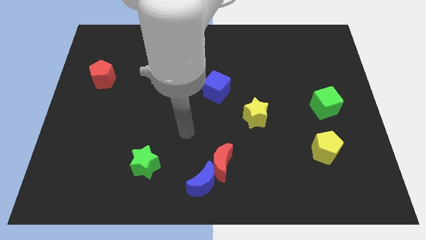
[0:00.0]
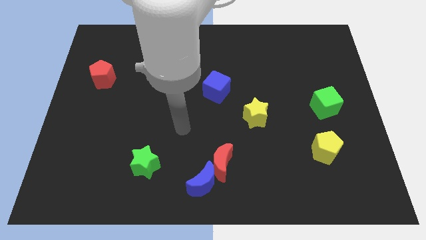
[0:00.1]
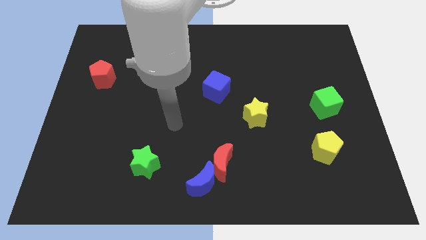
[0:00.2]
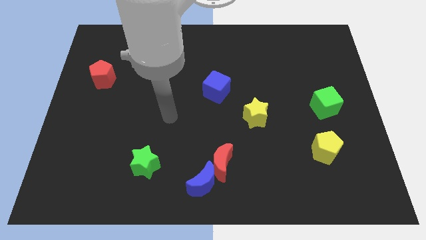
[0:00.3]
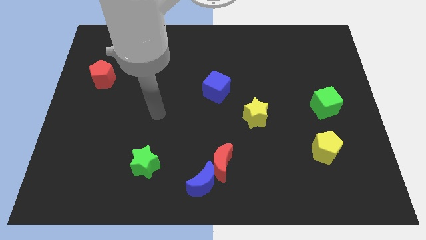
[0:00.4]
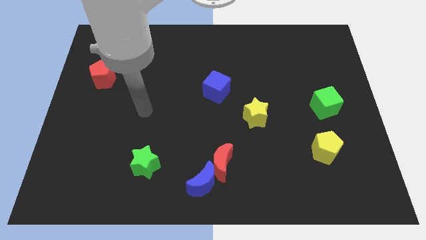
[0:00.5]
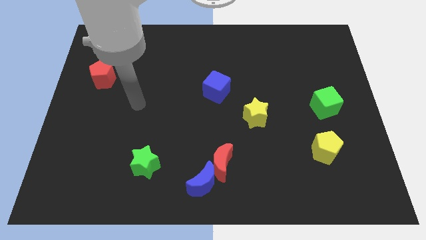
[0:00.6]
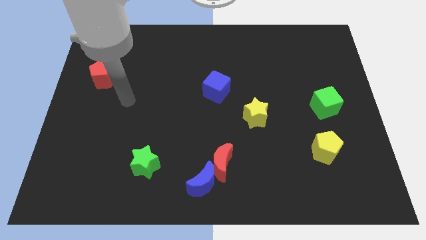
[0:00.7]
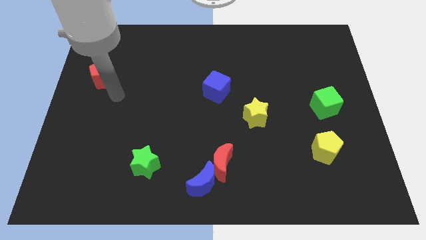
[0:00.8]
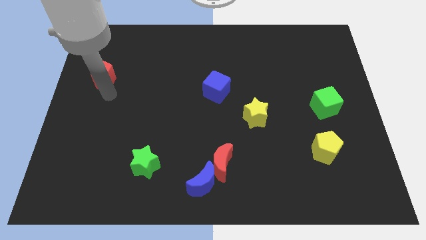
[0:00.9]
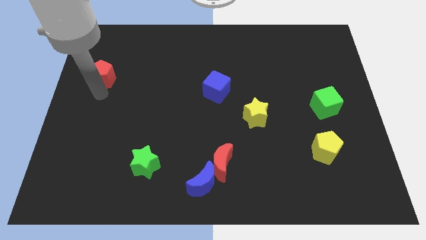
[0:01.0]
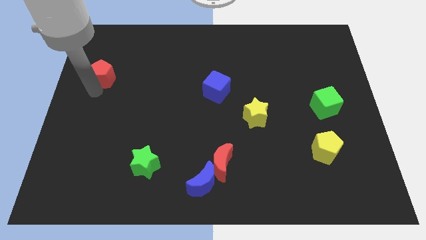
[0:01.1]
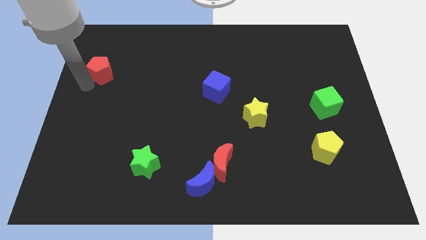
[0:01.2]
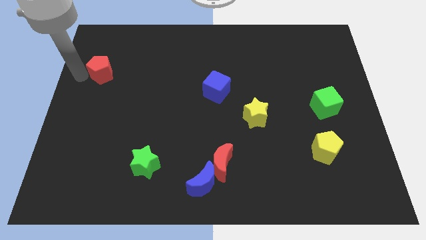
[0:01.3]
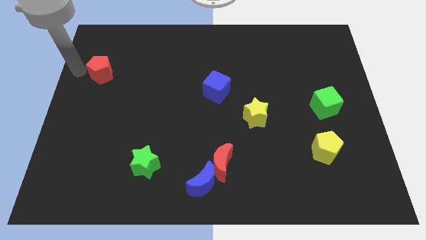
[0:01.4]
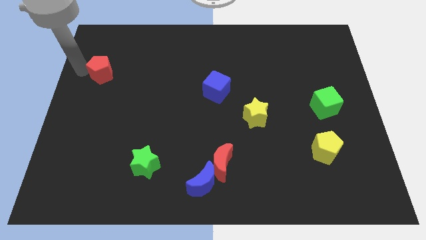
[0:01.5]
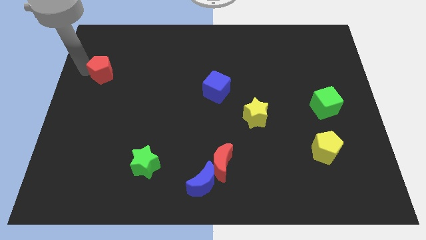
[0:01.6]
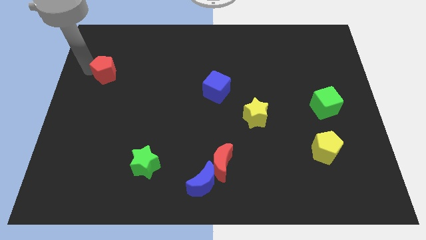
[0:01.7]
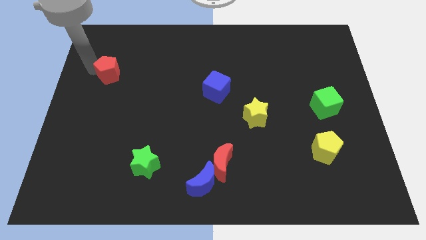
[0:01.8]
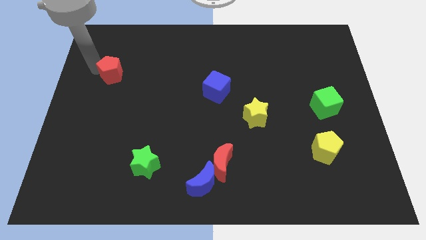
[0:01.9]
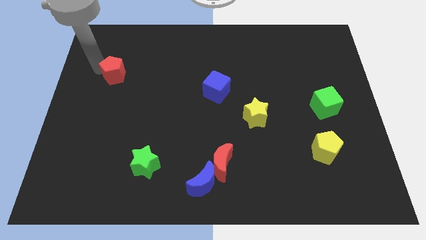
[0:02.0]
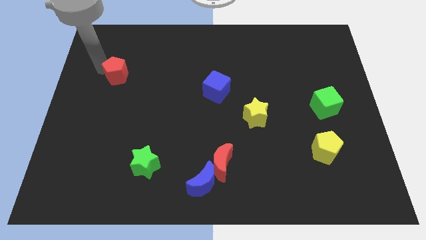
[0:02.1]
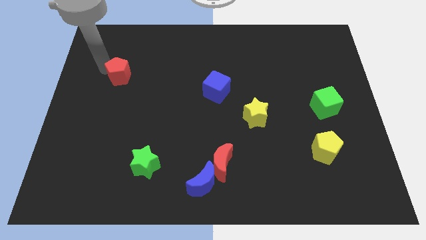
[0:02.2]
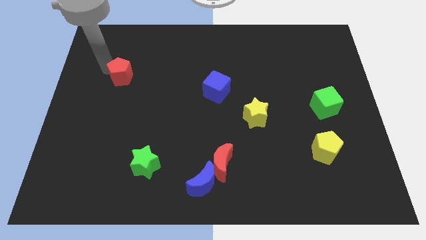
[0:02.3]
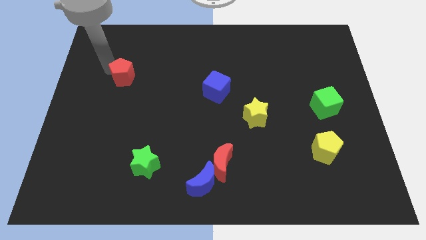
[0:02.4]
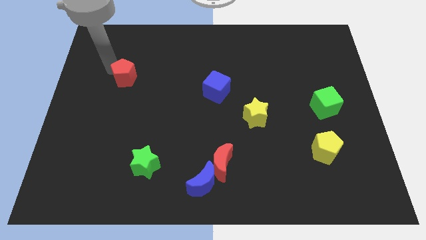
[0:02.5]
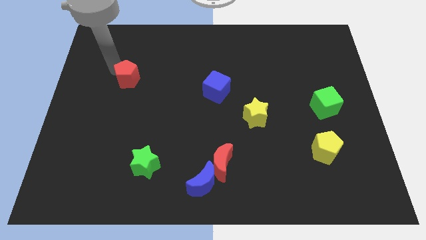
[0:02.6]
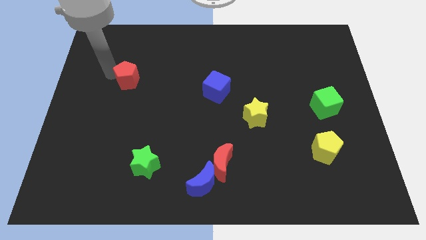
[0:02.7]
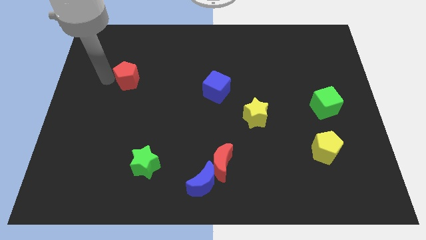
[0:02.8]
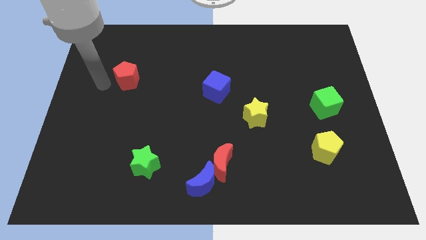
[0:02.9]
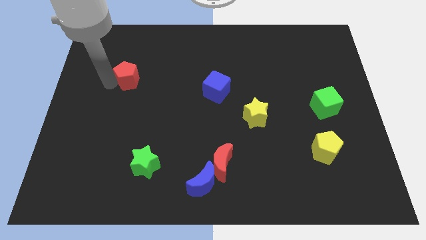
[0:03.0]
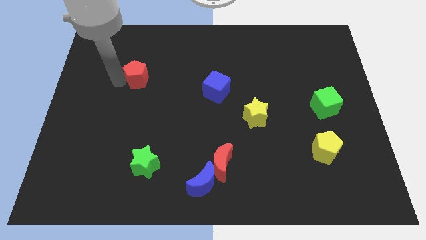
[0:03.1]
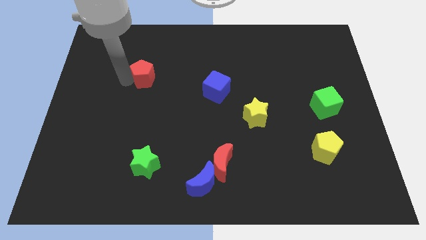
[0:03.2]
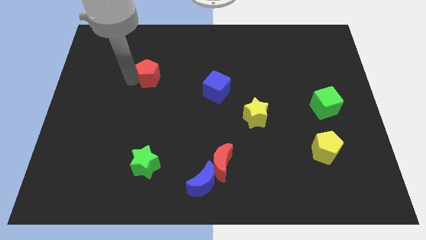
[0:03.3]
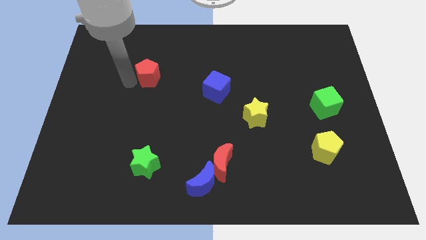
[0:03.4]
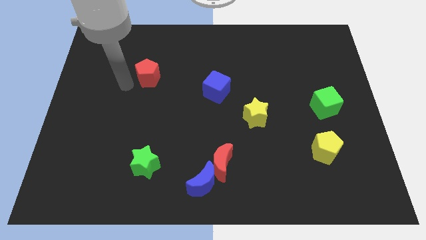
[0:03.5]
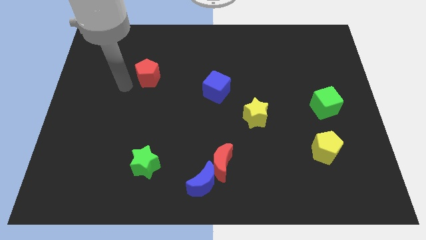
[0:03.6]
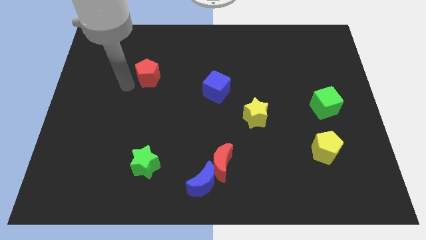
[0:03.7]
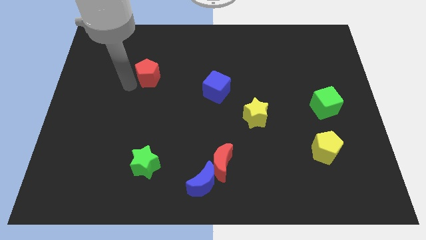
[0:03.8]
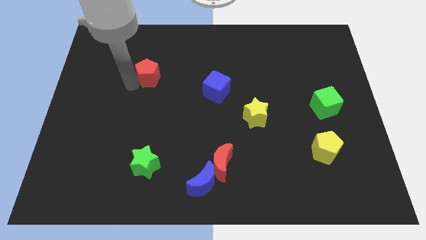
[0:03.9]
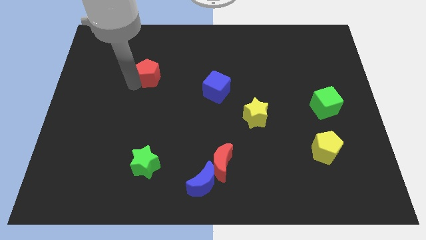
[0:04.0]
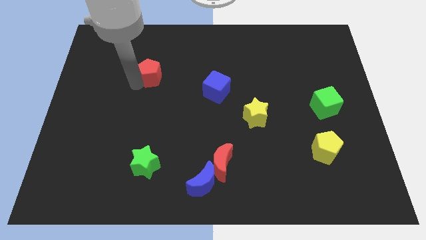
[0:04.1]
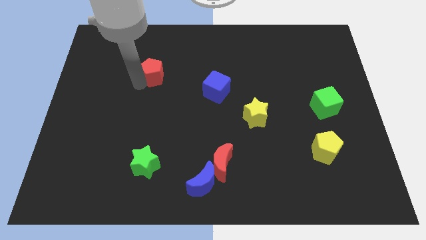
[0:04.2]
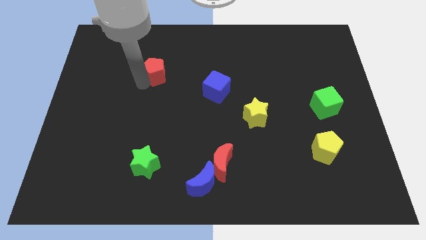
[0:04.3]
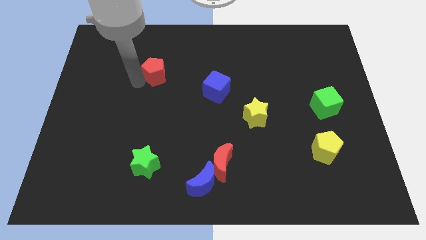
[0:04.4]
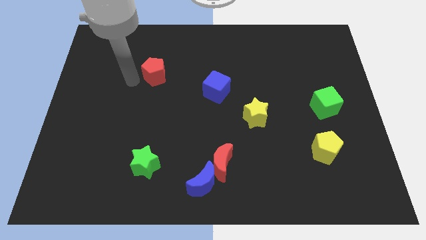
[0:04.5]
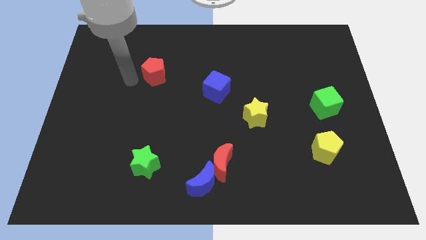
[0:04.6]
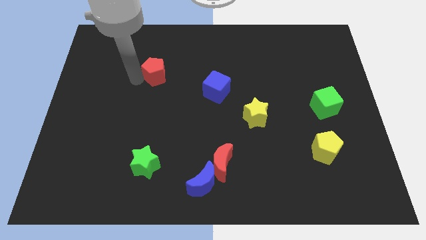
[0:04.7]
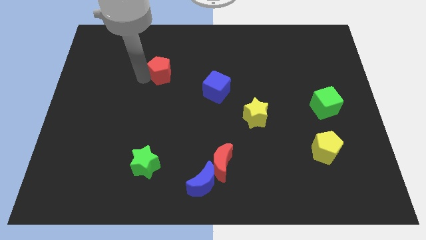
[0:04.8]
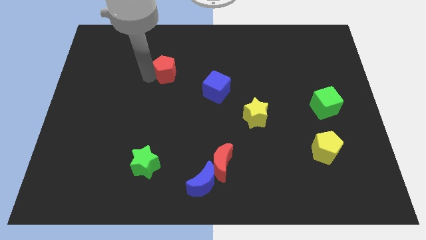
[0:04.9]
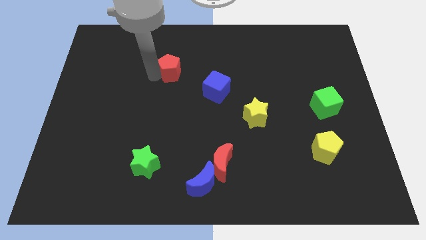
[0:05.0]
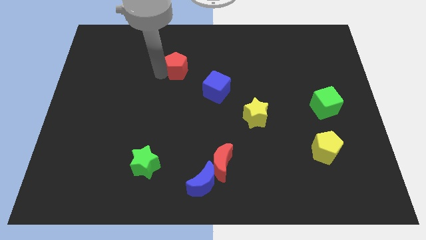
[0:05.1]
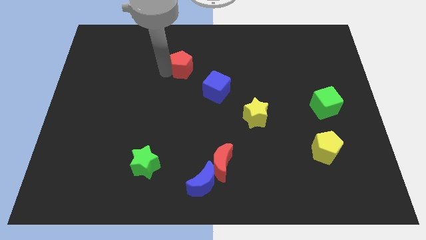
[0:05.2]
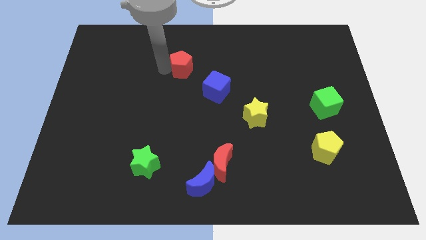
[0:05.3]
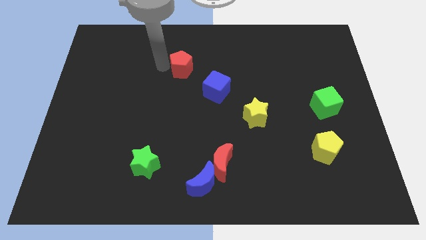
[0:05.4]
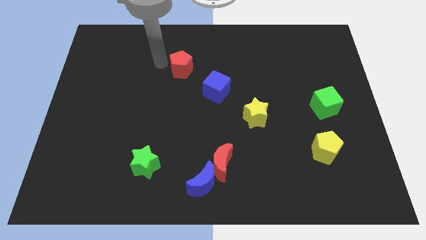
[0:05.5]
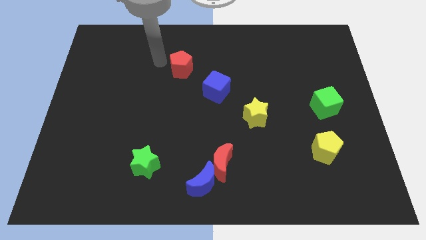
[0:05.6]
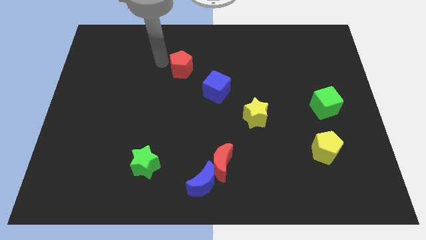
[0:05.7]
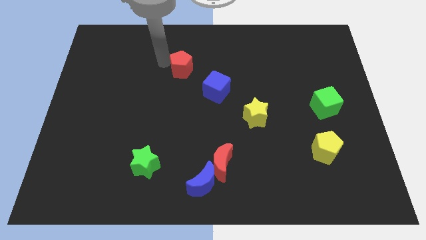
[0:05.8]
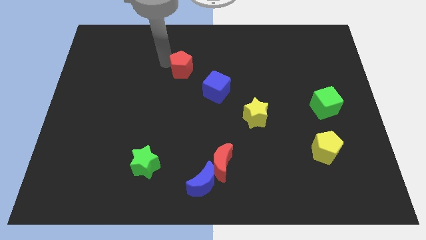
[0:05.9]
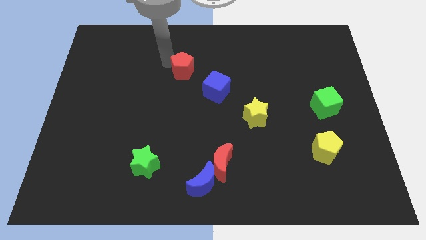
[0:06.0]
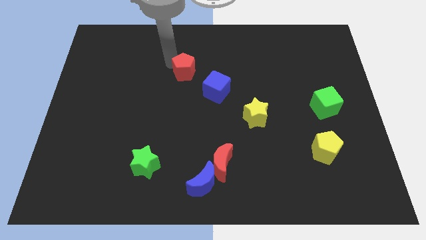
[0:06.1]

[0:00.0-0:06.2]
push the red pentagon to the right

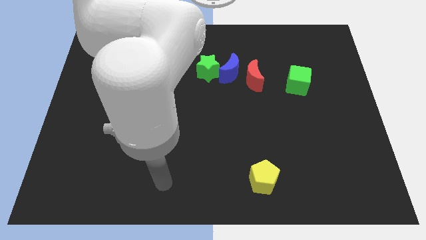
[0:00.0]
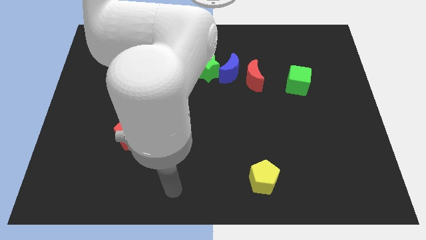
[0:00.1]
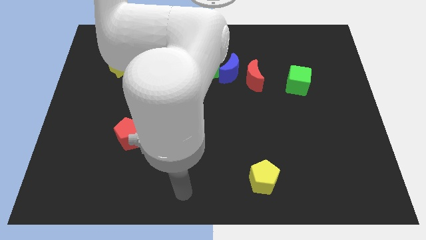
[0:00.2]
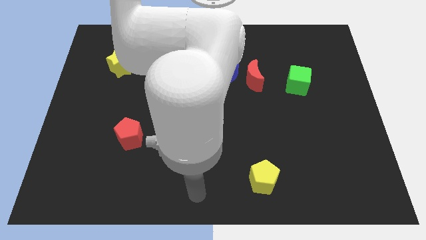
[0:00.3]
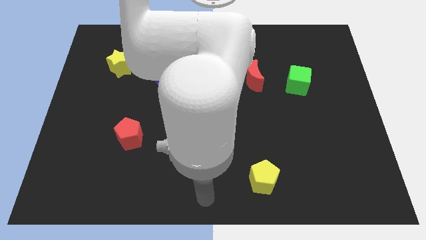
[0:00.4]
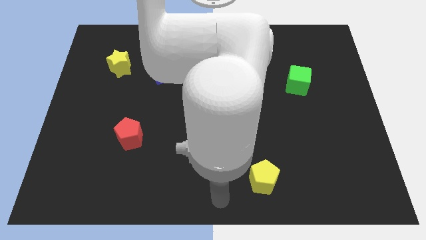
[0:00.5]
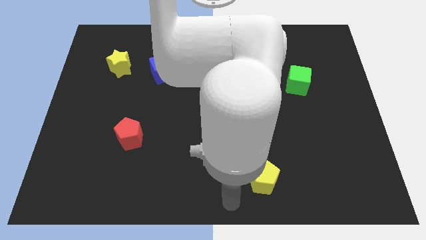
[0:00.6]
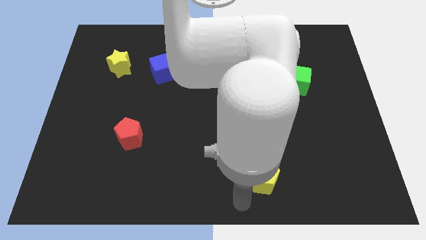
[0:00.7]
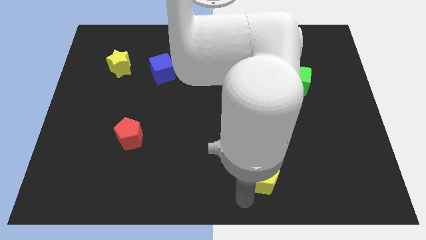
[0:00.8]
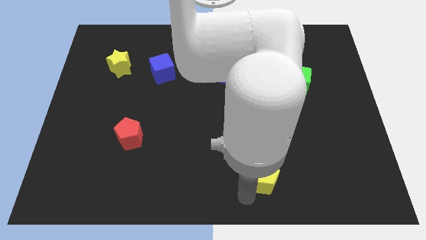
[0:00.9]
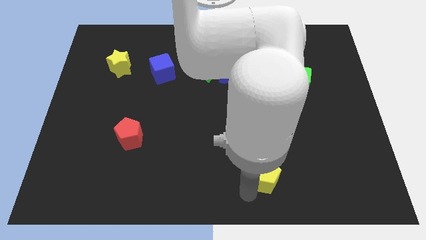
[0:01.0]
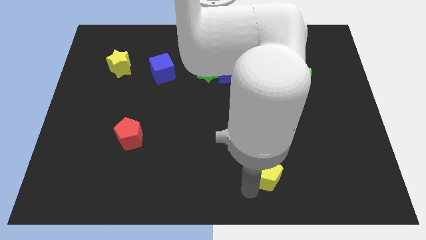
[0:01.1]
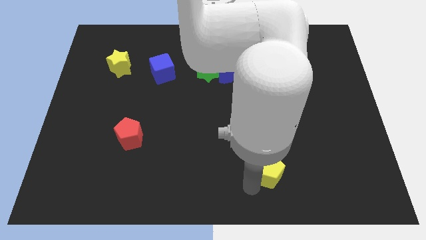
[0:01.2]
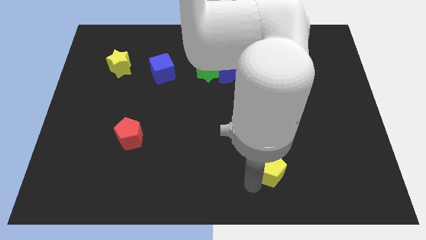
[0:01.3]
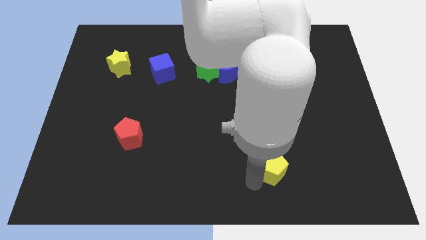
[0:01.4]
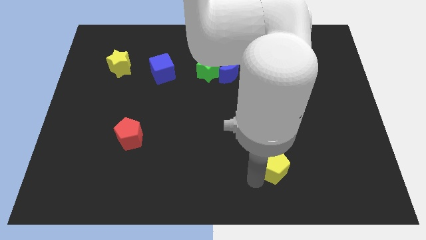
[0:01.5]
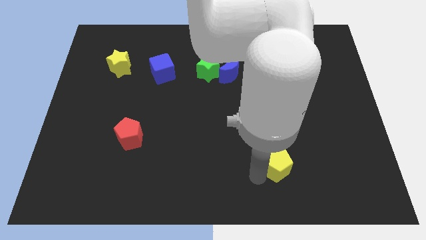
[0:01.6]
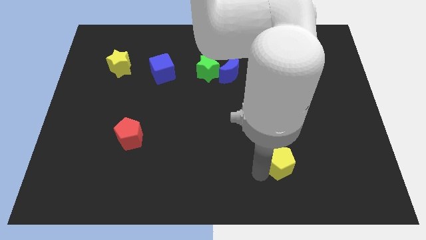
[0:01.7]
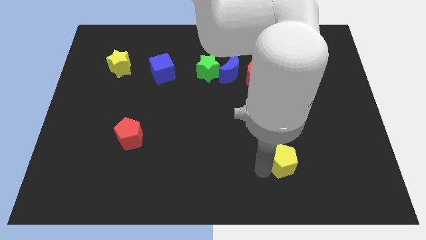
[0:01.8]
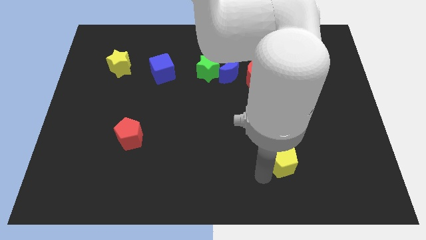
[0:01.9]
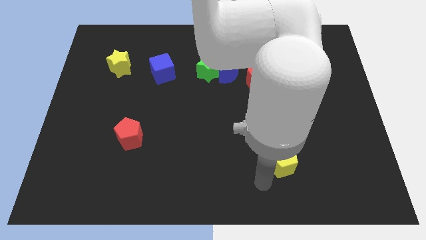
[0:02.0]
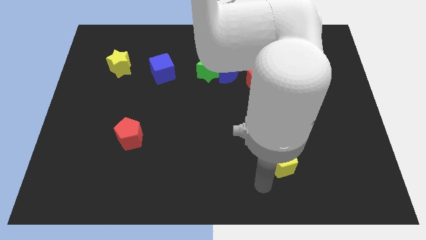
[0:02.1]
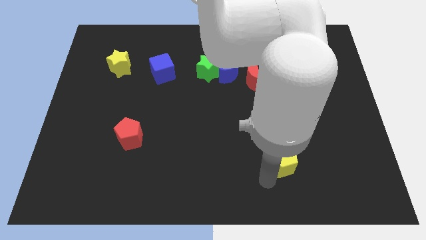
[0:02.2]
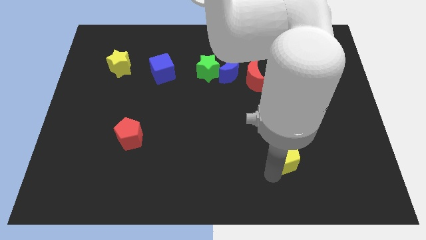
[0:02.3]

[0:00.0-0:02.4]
slide the yellow pentagon up and then to the right a bit
